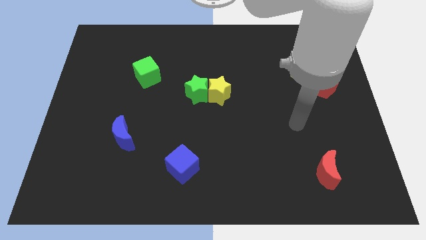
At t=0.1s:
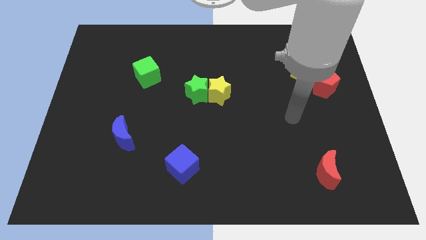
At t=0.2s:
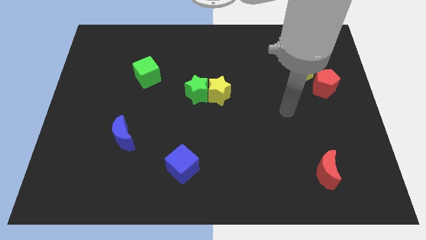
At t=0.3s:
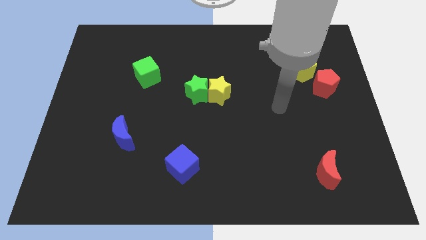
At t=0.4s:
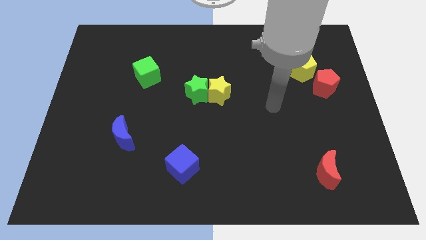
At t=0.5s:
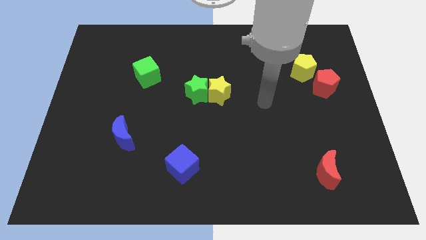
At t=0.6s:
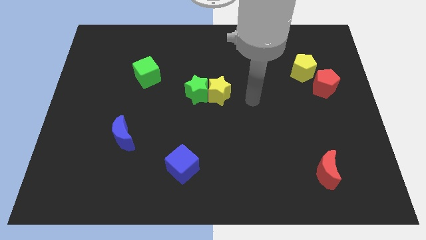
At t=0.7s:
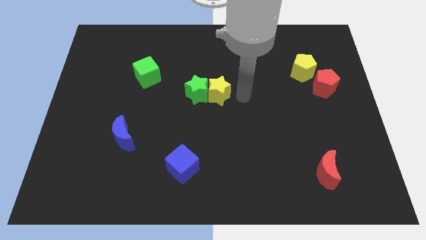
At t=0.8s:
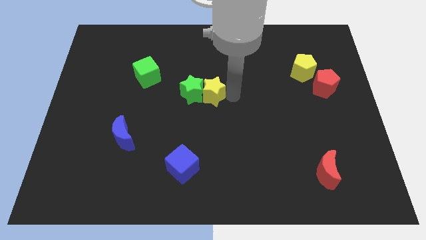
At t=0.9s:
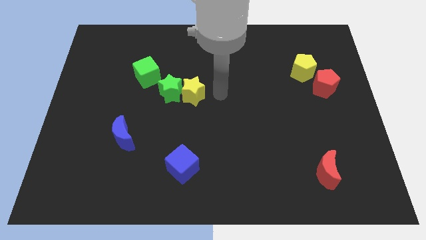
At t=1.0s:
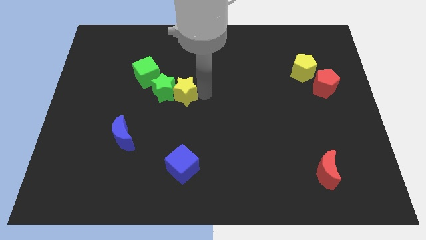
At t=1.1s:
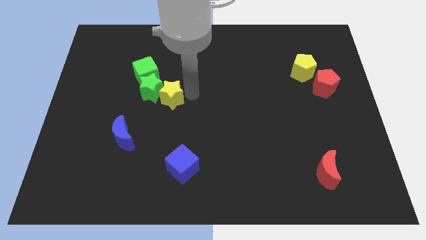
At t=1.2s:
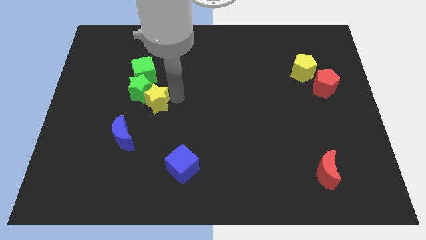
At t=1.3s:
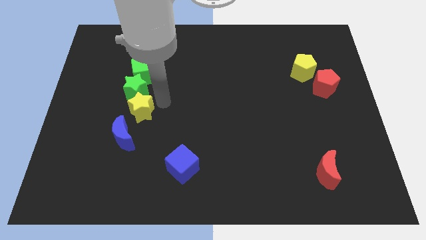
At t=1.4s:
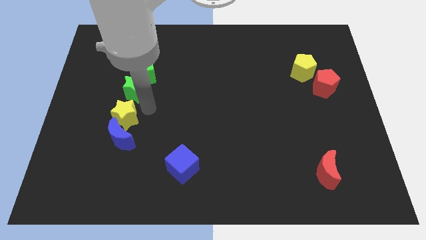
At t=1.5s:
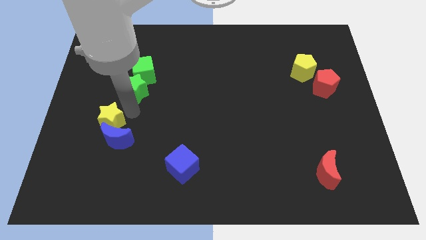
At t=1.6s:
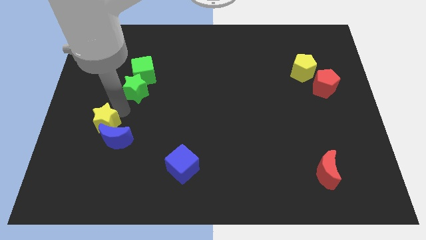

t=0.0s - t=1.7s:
pull the green star apart from the yellow star

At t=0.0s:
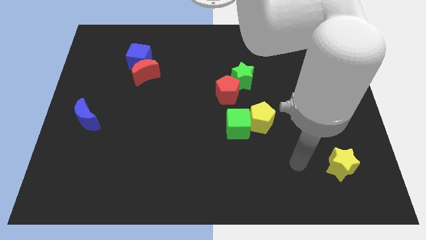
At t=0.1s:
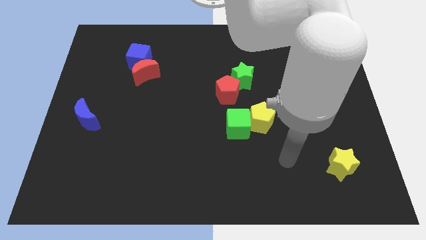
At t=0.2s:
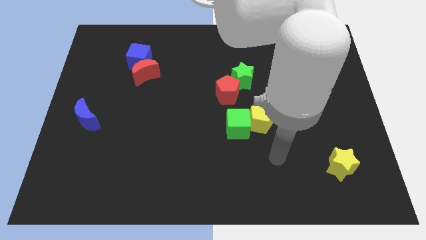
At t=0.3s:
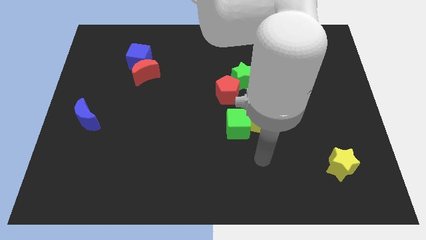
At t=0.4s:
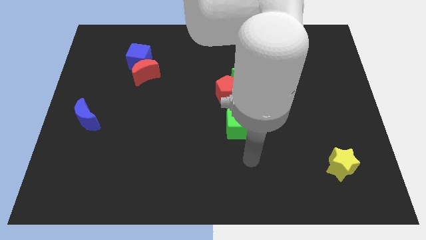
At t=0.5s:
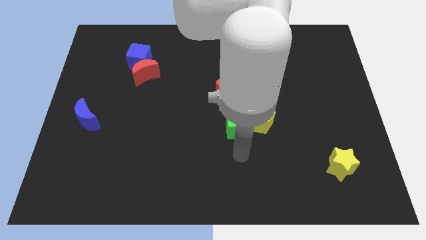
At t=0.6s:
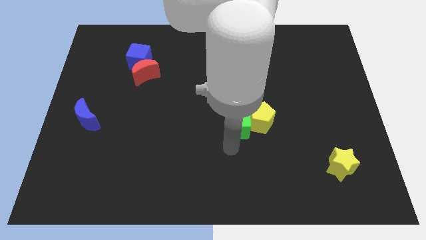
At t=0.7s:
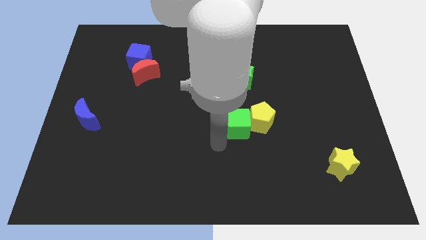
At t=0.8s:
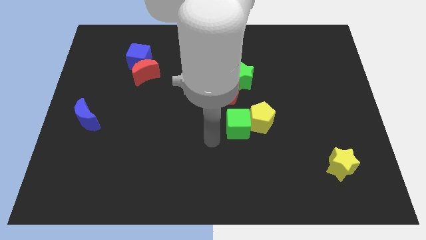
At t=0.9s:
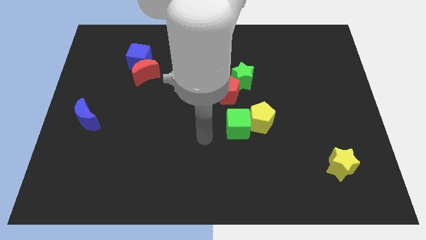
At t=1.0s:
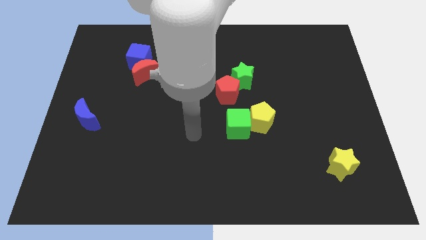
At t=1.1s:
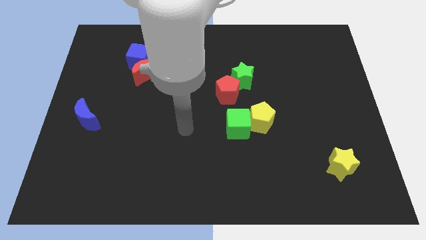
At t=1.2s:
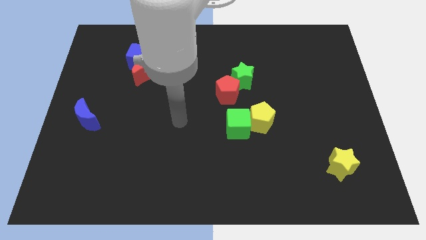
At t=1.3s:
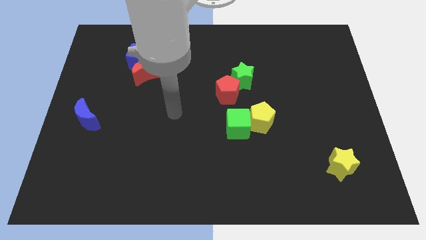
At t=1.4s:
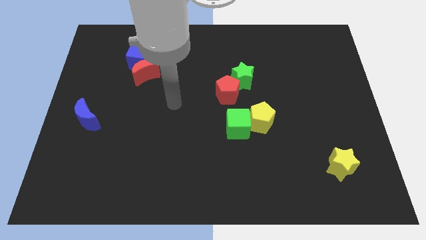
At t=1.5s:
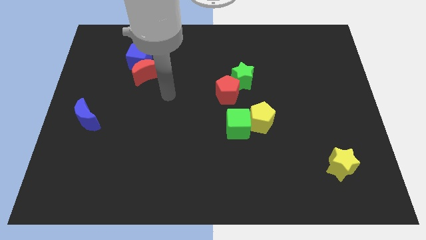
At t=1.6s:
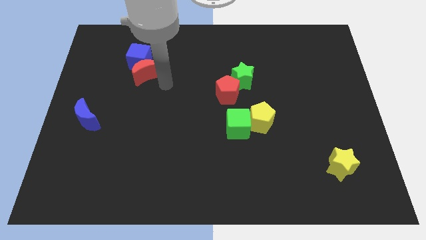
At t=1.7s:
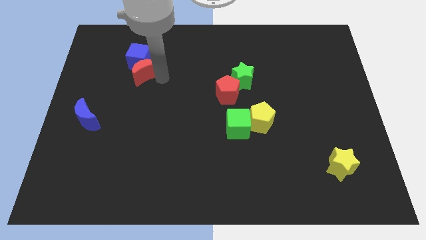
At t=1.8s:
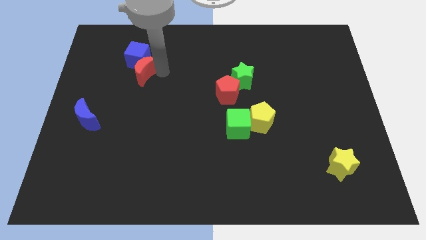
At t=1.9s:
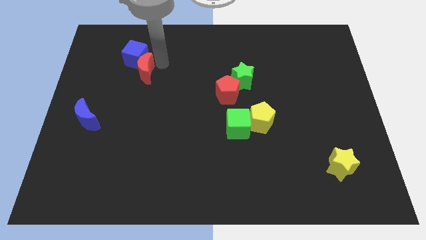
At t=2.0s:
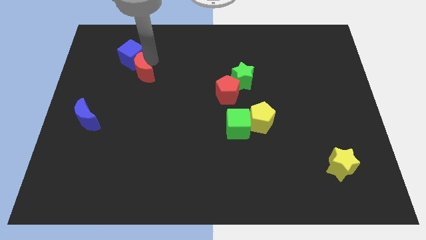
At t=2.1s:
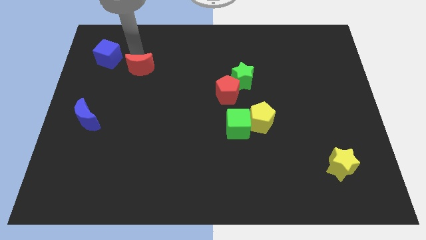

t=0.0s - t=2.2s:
pull the red moon apart from the blue cube

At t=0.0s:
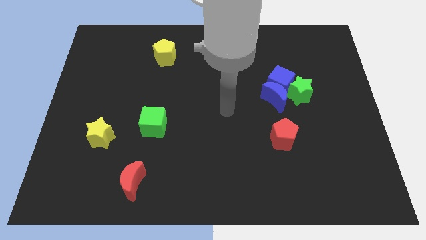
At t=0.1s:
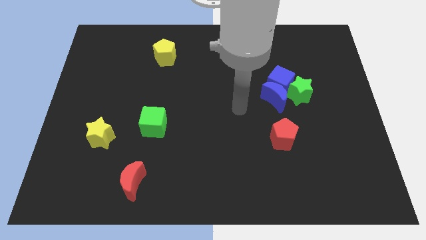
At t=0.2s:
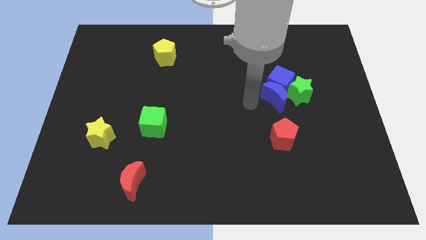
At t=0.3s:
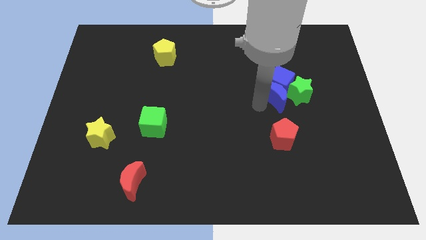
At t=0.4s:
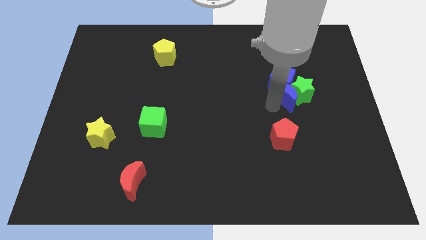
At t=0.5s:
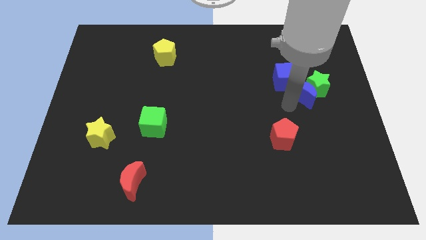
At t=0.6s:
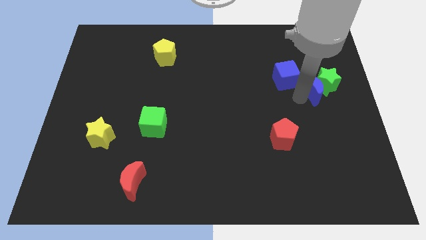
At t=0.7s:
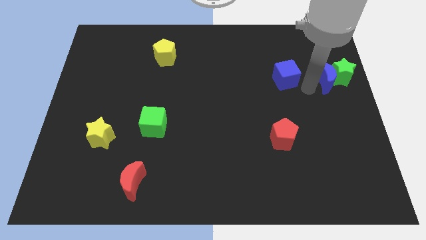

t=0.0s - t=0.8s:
separate the blue cube from the blue moon and green star

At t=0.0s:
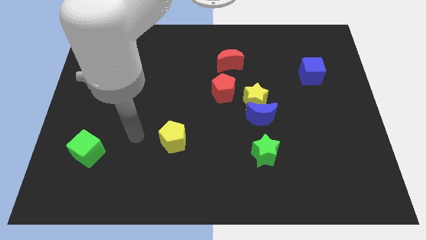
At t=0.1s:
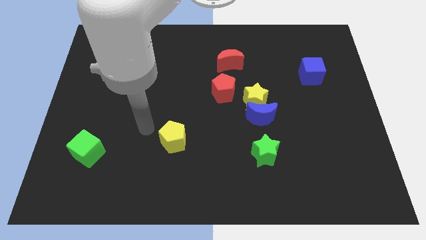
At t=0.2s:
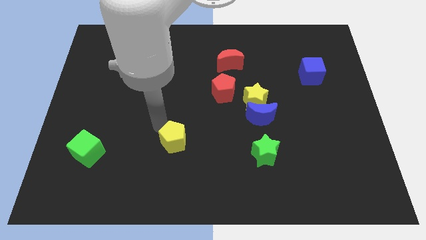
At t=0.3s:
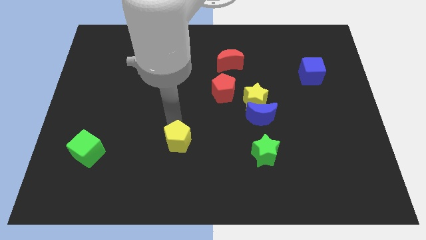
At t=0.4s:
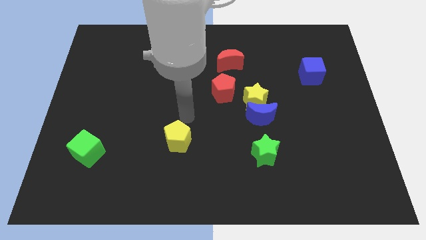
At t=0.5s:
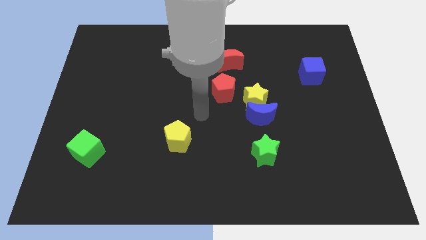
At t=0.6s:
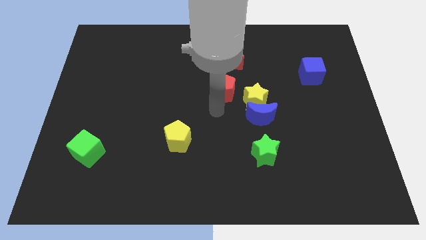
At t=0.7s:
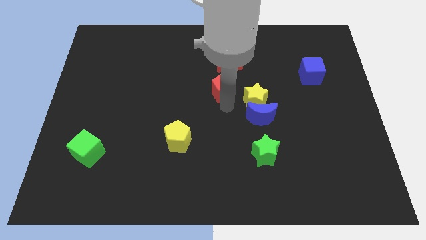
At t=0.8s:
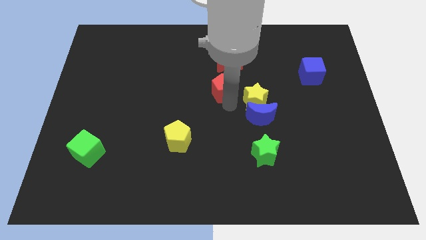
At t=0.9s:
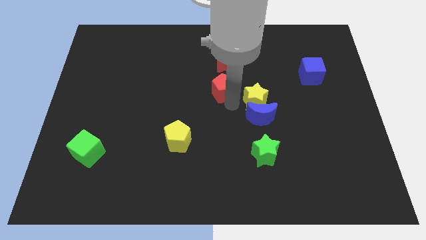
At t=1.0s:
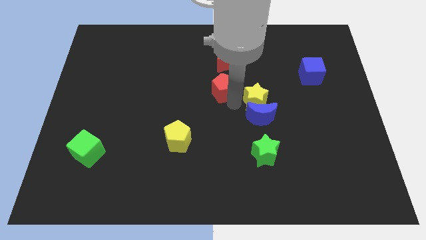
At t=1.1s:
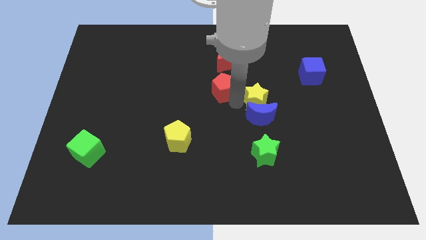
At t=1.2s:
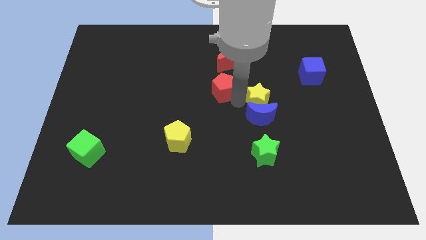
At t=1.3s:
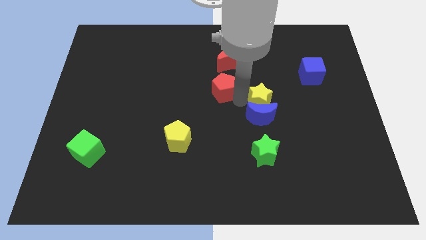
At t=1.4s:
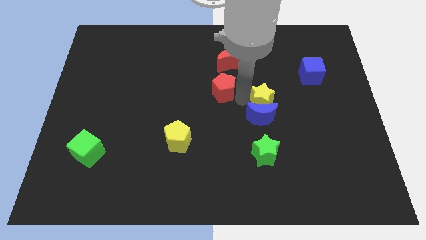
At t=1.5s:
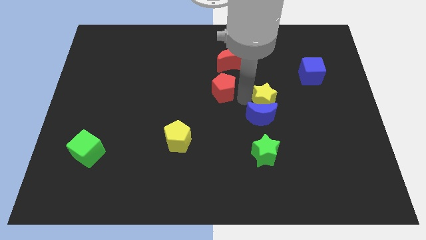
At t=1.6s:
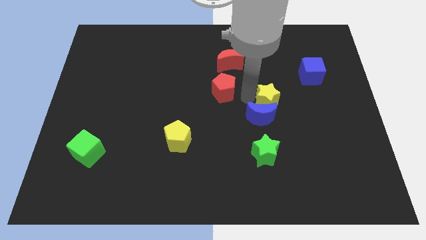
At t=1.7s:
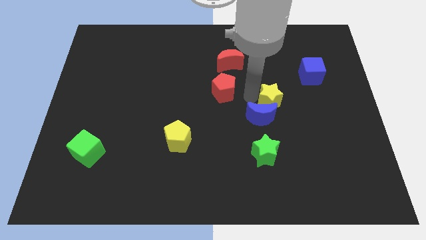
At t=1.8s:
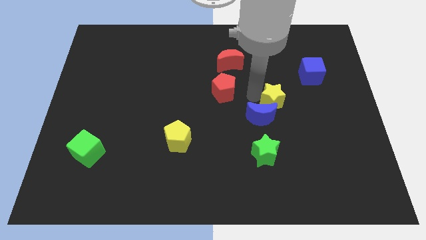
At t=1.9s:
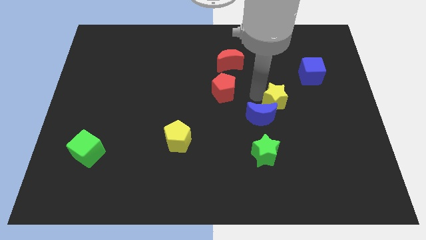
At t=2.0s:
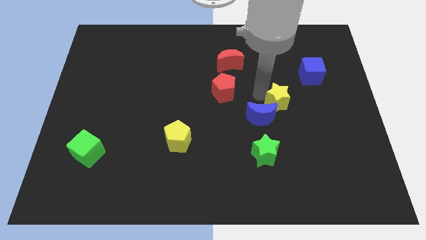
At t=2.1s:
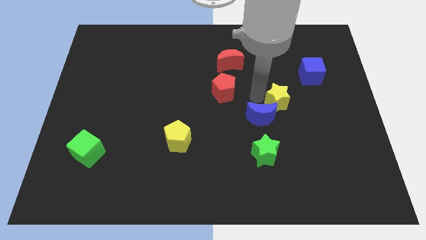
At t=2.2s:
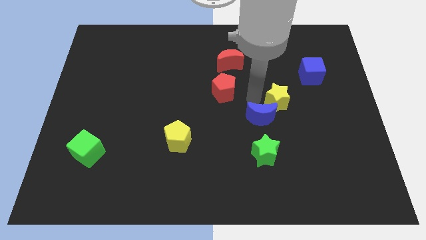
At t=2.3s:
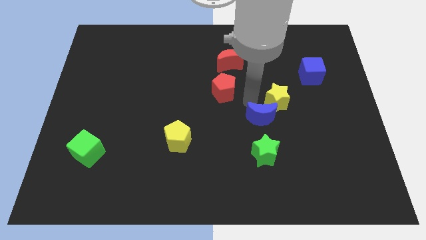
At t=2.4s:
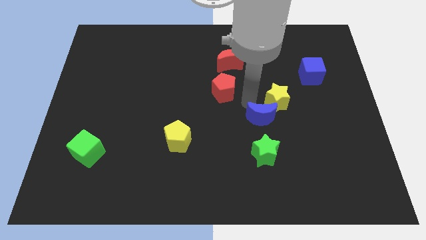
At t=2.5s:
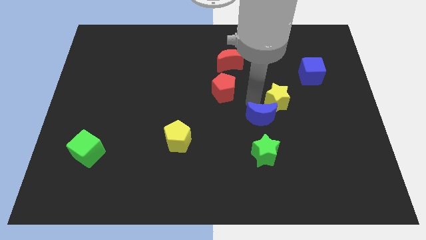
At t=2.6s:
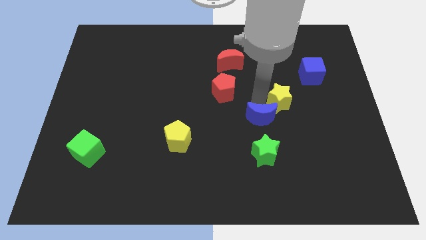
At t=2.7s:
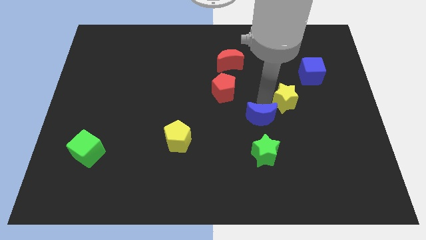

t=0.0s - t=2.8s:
move the yellow star away from the blue moon and red pentagon

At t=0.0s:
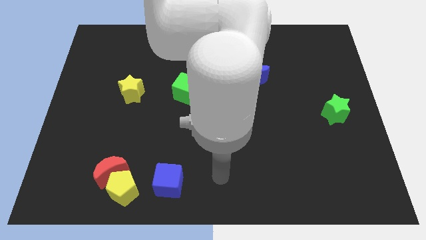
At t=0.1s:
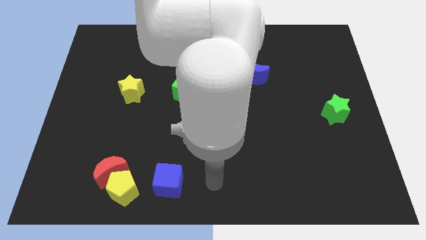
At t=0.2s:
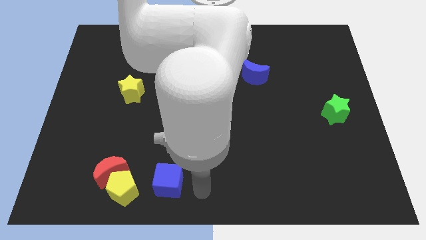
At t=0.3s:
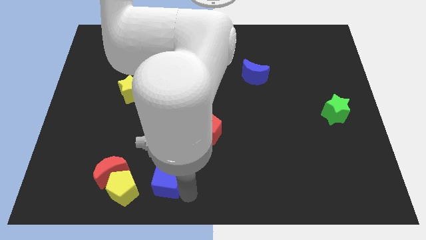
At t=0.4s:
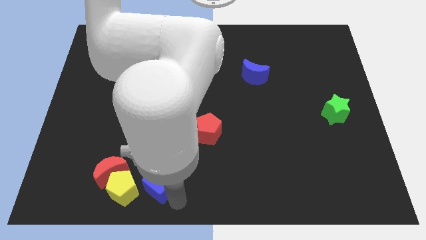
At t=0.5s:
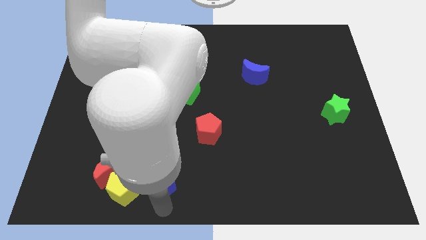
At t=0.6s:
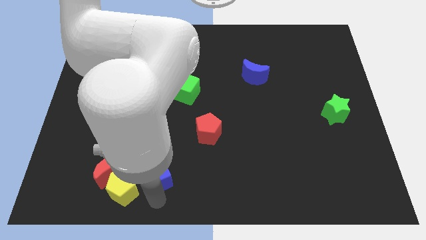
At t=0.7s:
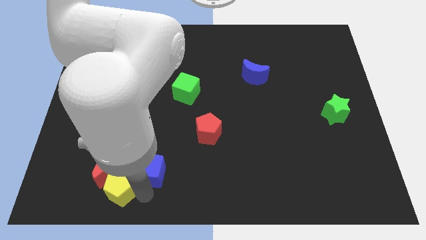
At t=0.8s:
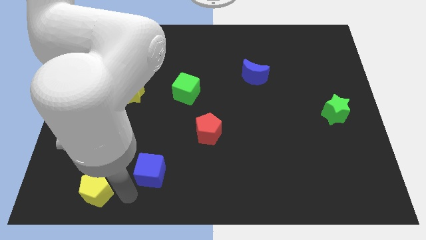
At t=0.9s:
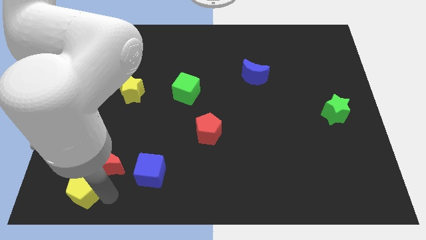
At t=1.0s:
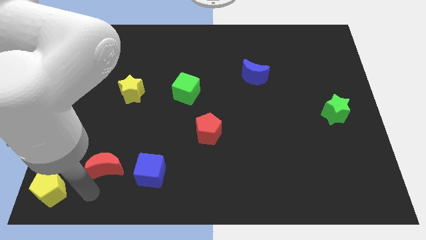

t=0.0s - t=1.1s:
move the red moon away from the yellow pentagon

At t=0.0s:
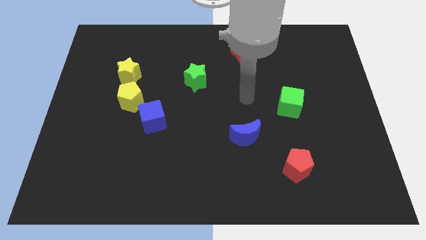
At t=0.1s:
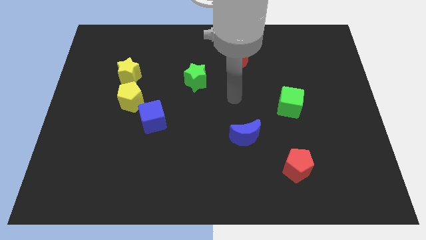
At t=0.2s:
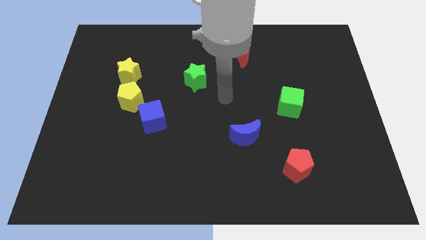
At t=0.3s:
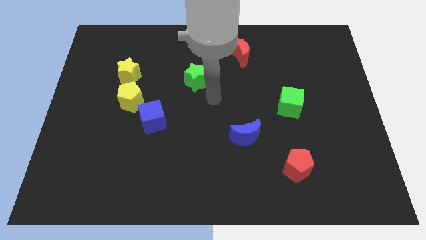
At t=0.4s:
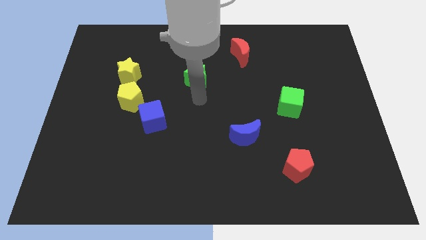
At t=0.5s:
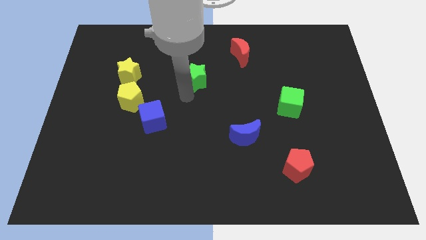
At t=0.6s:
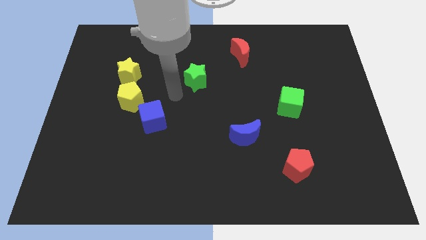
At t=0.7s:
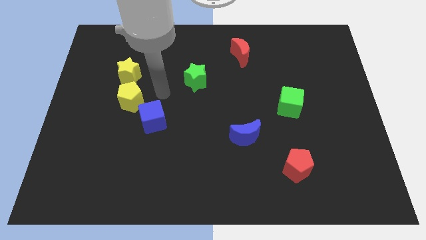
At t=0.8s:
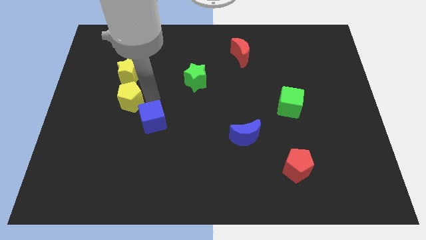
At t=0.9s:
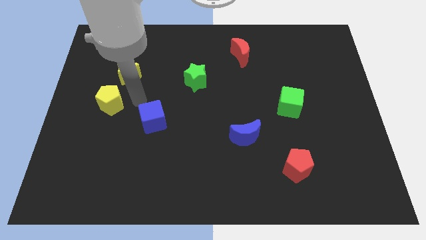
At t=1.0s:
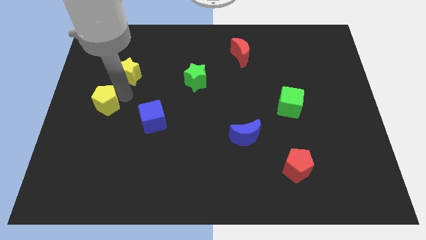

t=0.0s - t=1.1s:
pull the yellow star apart from the yellow pentagon
